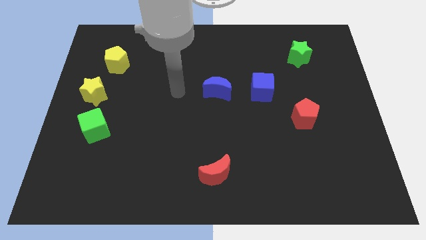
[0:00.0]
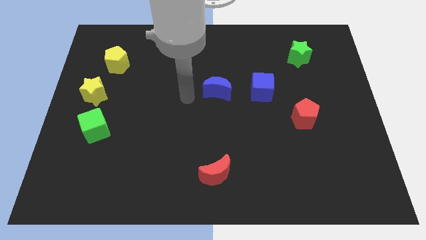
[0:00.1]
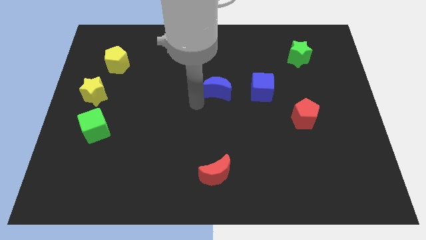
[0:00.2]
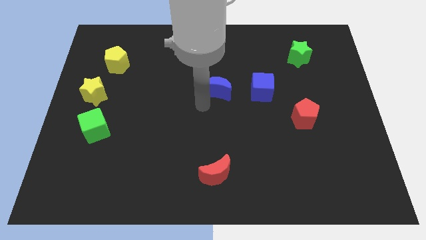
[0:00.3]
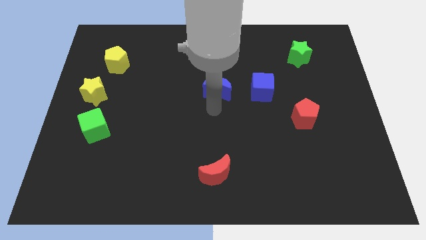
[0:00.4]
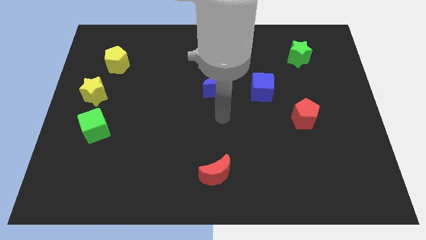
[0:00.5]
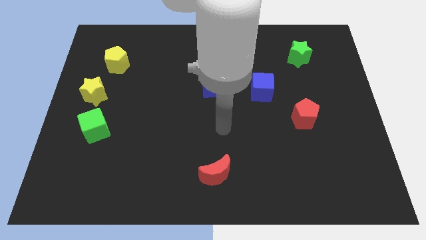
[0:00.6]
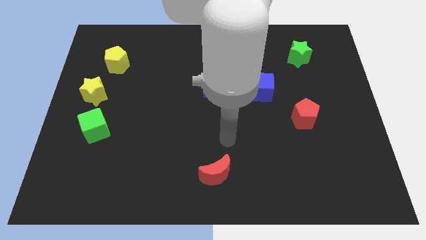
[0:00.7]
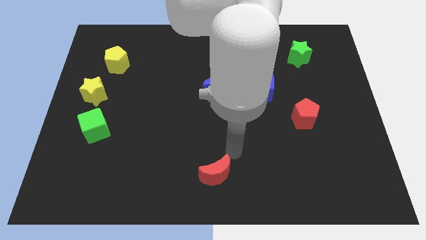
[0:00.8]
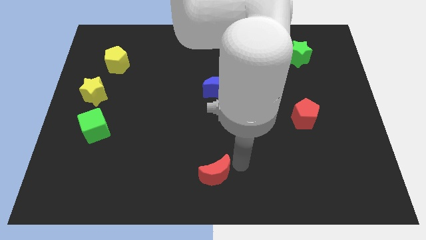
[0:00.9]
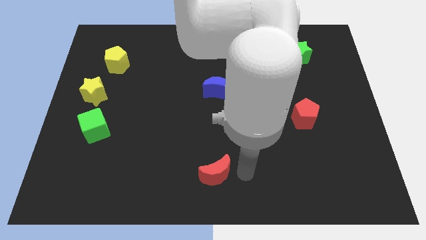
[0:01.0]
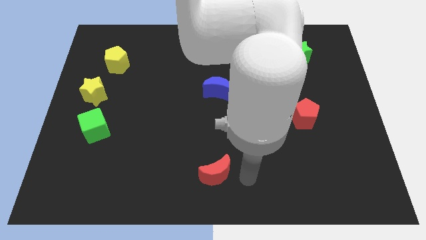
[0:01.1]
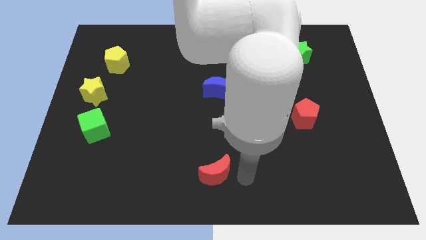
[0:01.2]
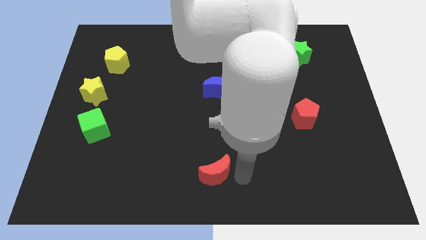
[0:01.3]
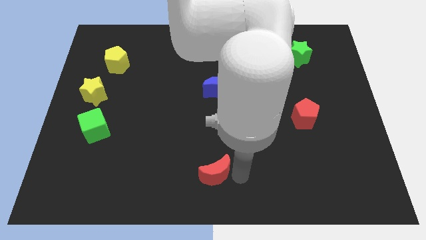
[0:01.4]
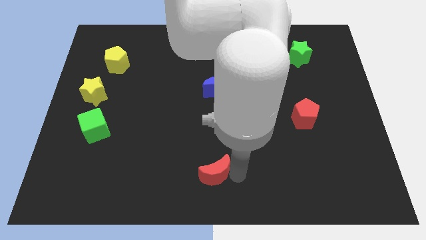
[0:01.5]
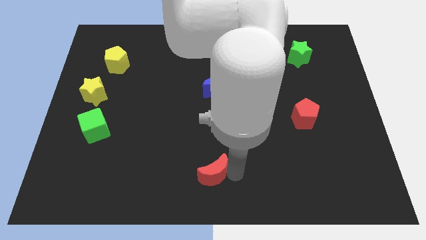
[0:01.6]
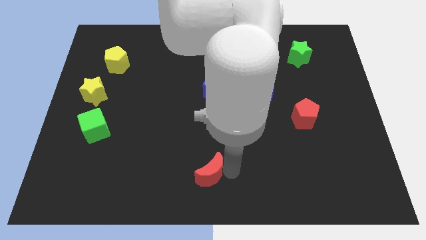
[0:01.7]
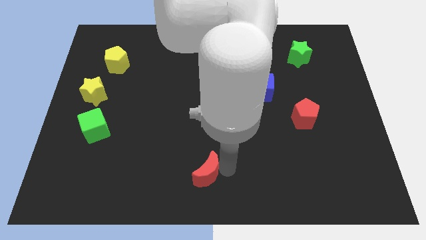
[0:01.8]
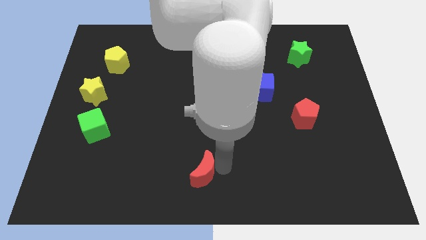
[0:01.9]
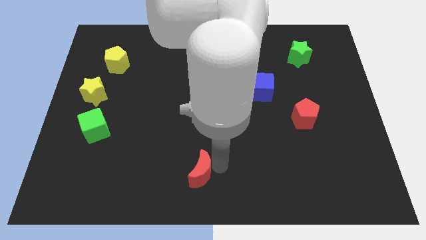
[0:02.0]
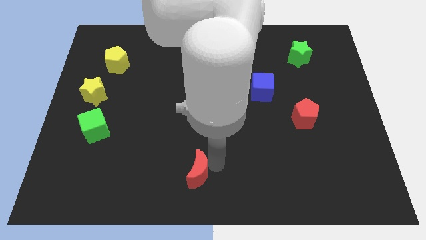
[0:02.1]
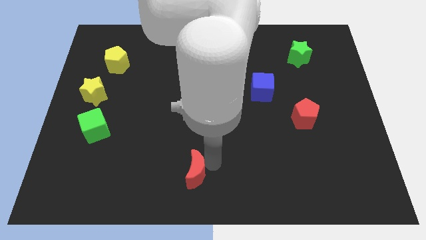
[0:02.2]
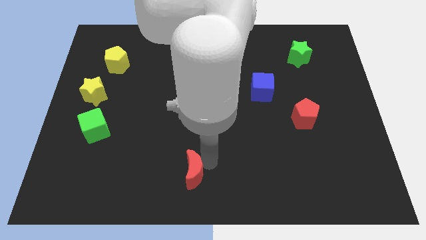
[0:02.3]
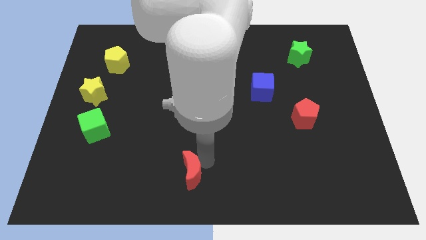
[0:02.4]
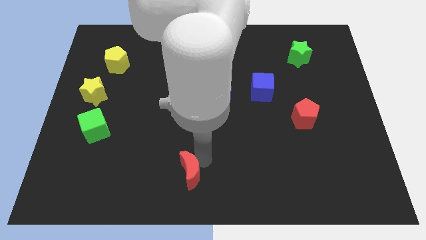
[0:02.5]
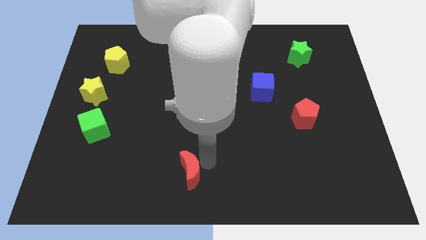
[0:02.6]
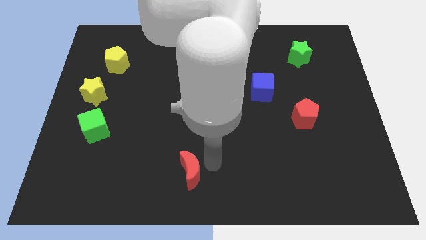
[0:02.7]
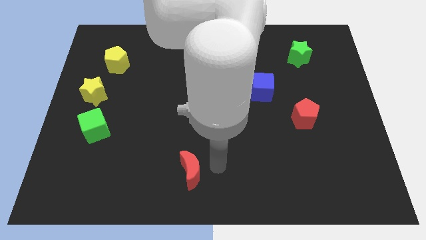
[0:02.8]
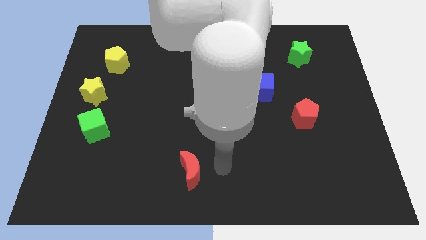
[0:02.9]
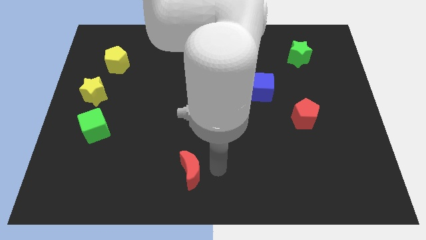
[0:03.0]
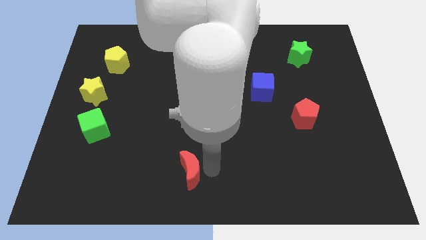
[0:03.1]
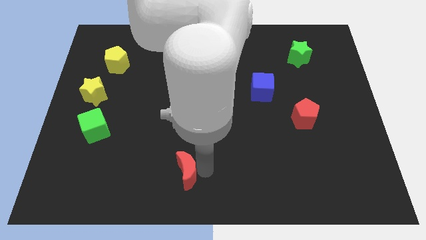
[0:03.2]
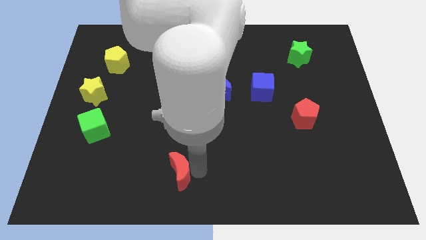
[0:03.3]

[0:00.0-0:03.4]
move the red moon a little left

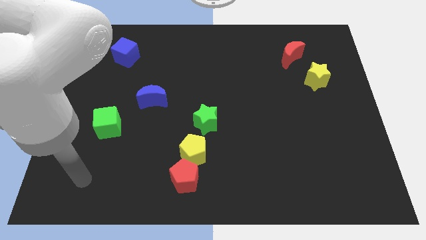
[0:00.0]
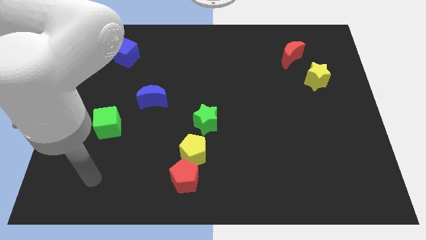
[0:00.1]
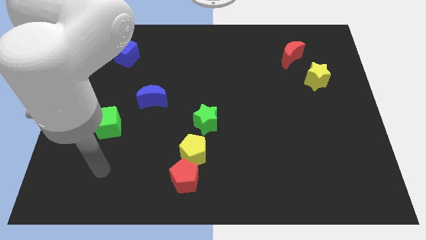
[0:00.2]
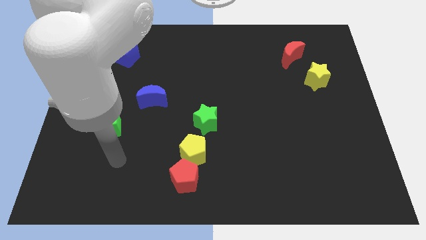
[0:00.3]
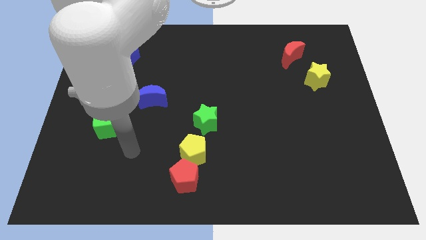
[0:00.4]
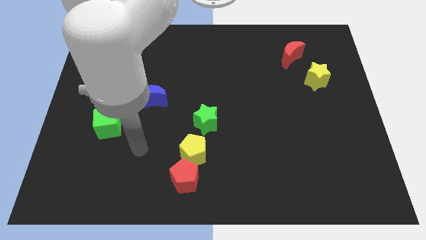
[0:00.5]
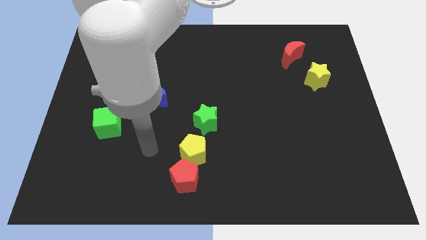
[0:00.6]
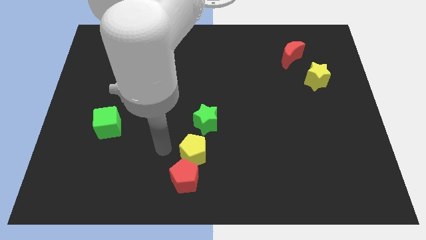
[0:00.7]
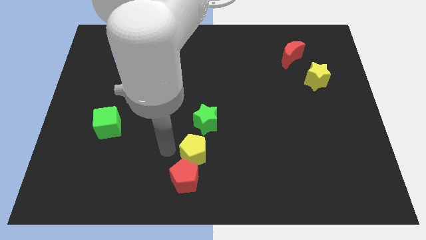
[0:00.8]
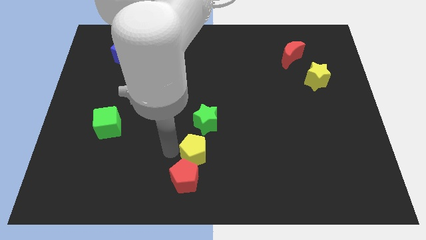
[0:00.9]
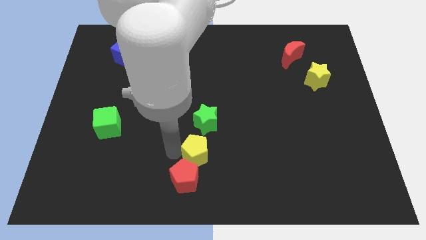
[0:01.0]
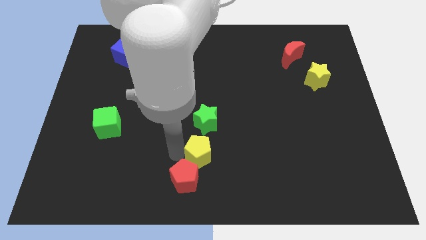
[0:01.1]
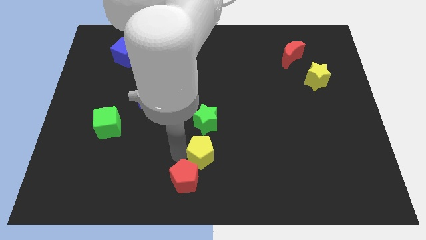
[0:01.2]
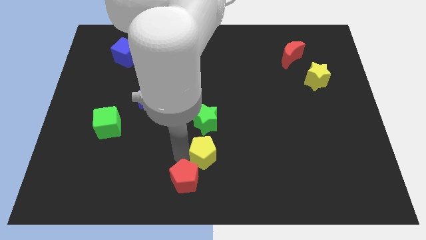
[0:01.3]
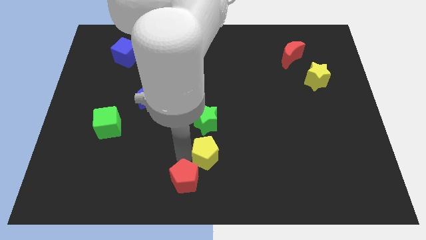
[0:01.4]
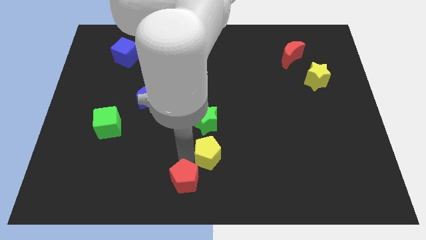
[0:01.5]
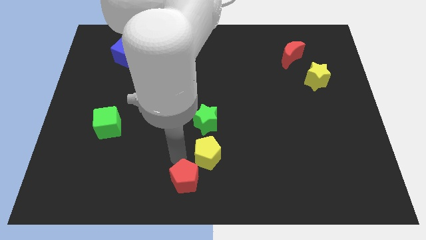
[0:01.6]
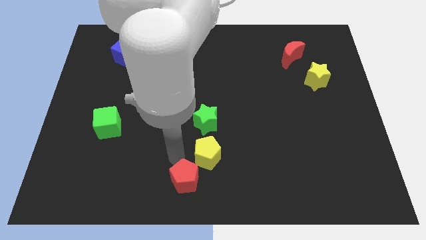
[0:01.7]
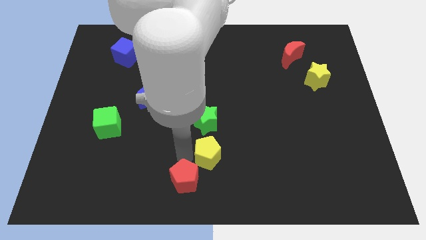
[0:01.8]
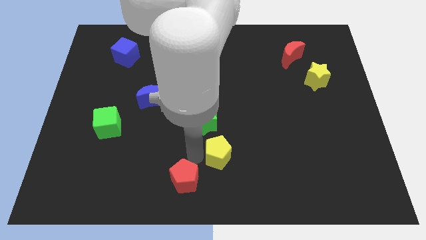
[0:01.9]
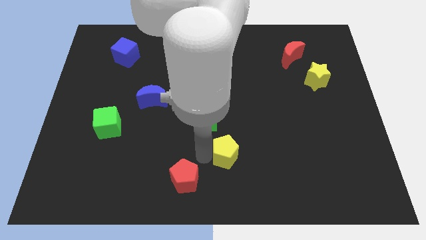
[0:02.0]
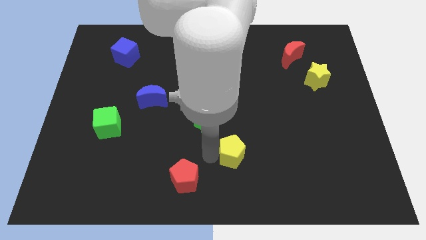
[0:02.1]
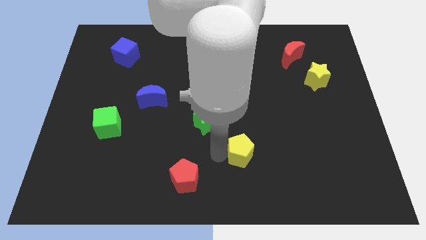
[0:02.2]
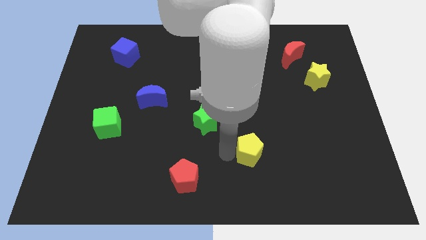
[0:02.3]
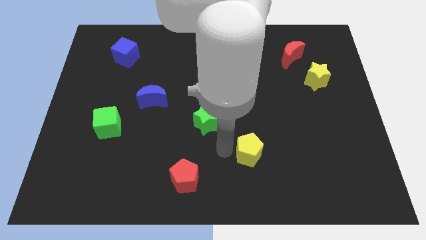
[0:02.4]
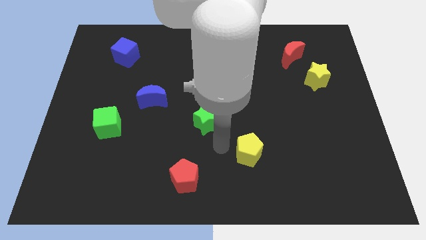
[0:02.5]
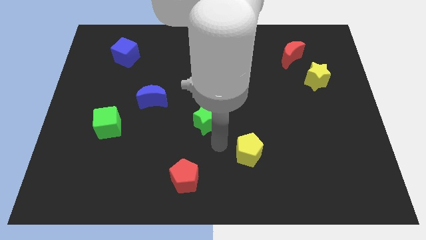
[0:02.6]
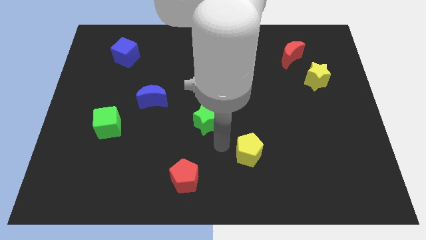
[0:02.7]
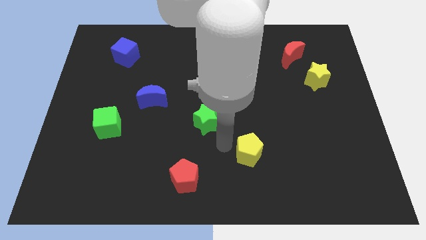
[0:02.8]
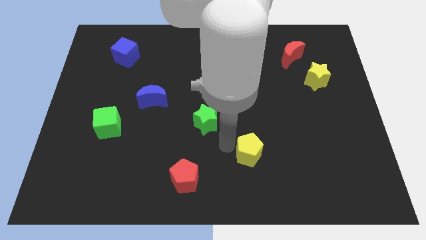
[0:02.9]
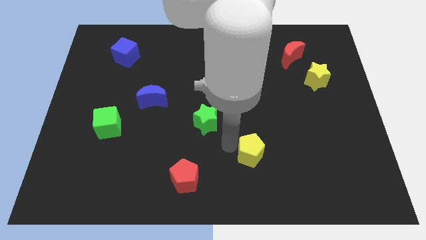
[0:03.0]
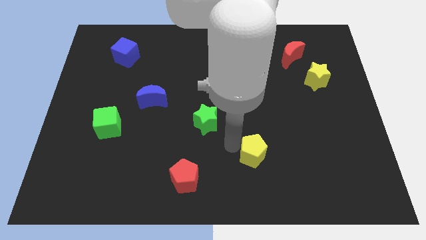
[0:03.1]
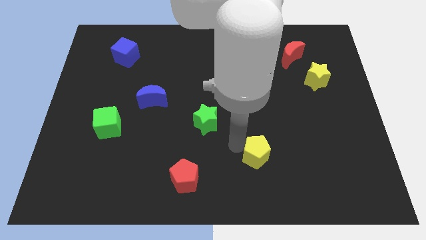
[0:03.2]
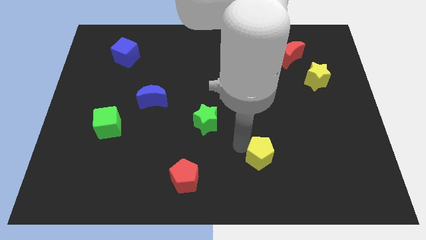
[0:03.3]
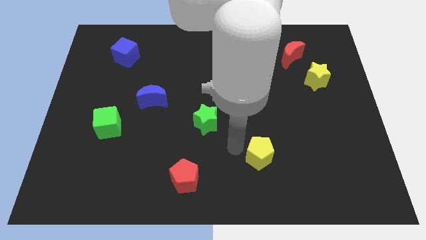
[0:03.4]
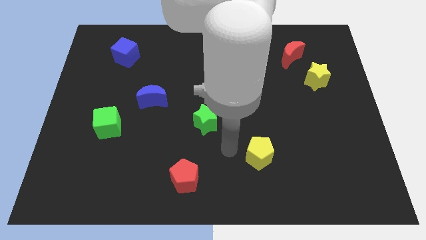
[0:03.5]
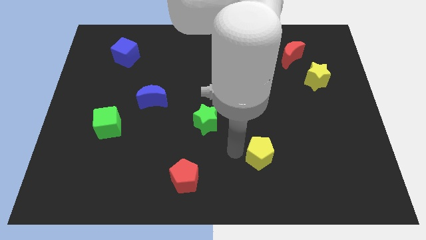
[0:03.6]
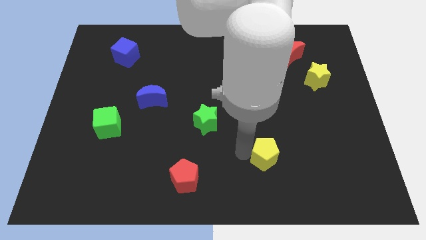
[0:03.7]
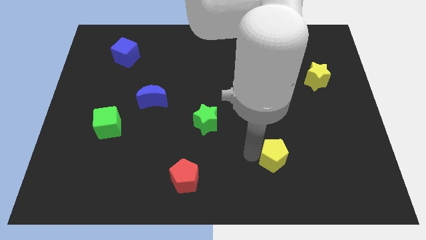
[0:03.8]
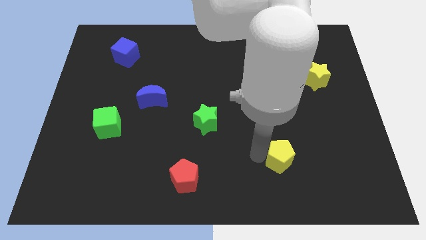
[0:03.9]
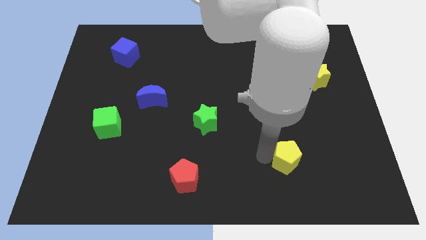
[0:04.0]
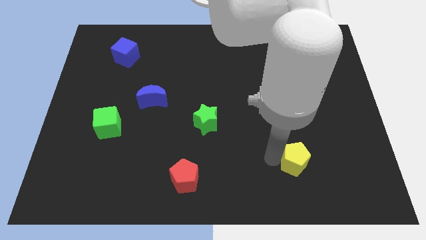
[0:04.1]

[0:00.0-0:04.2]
push the yellow pentagon to the right
